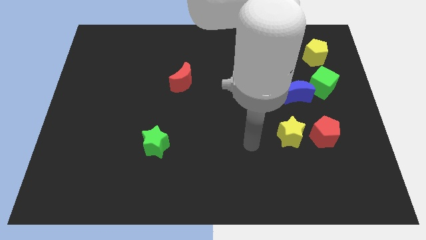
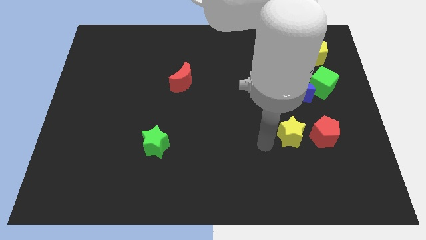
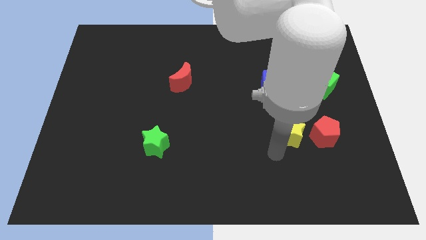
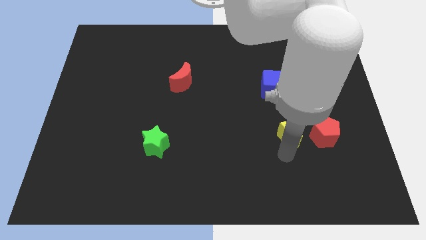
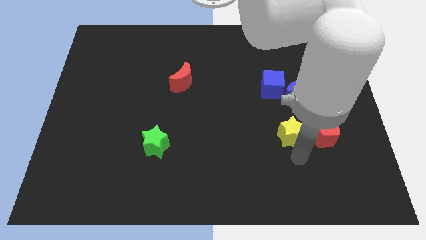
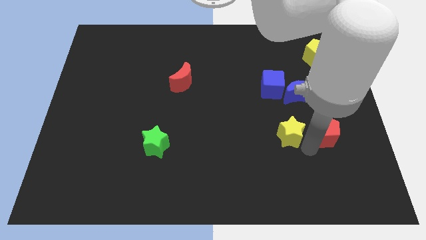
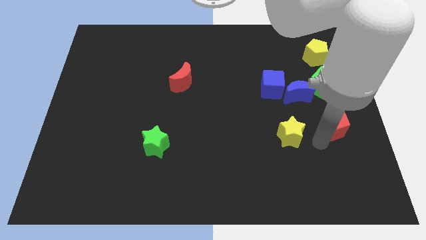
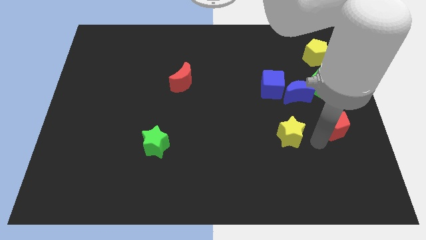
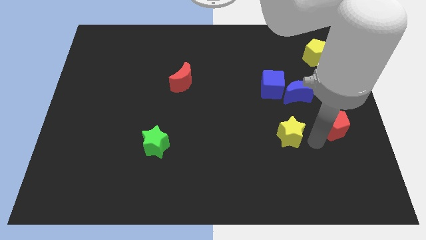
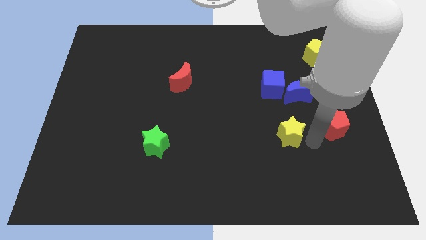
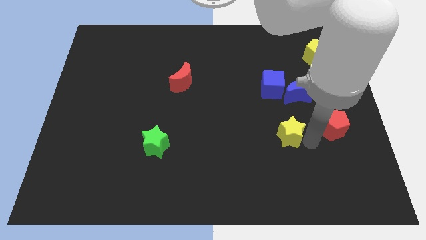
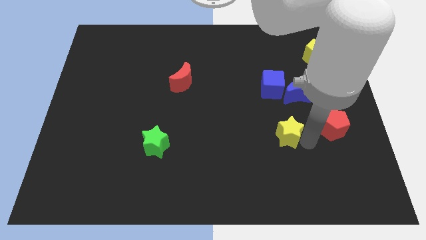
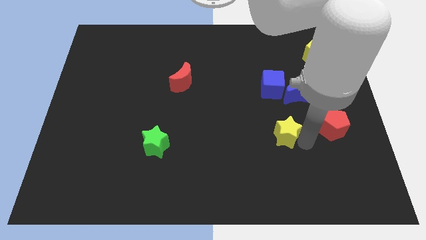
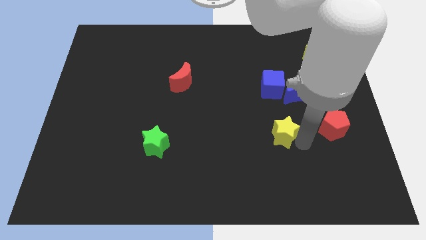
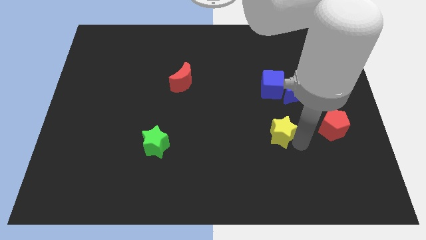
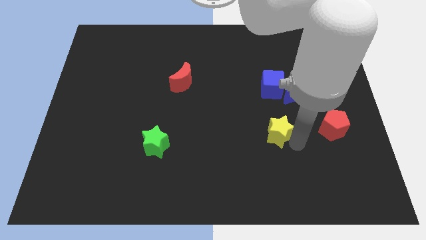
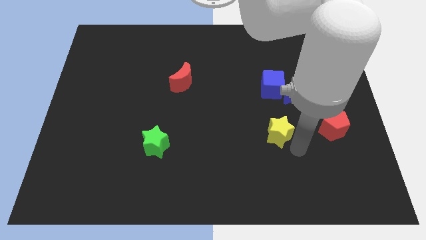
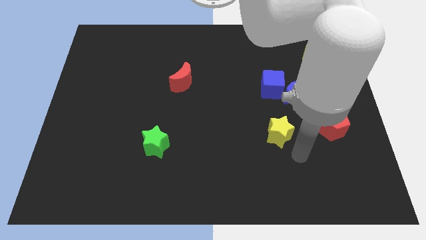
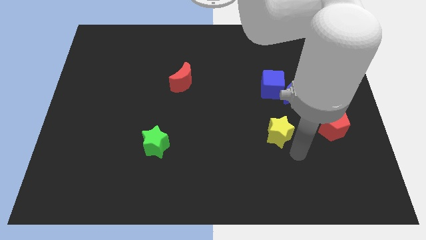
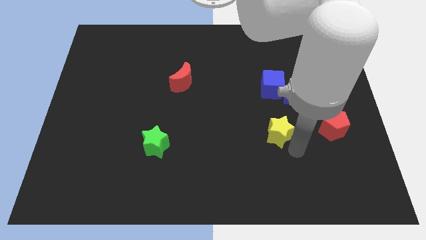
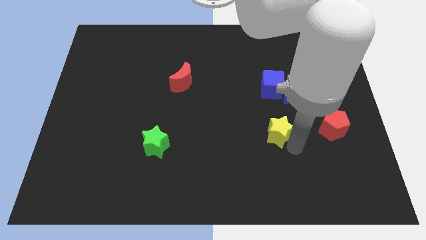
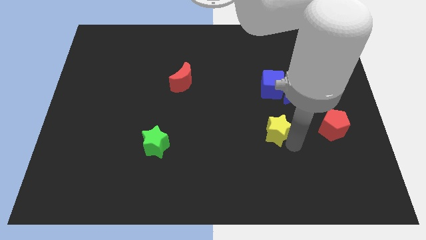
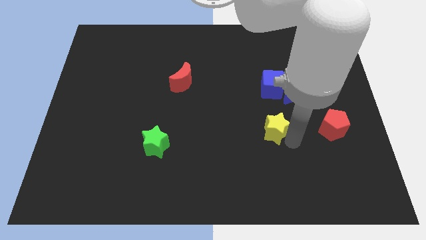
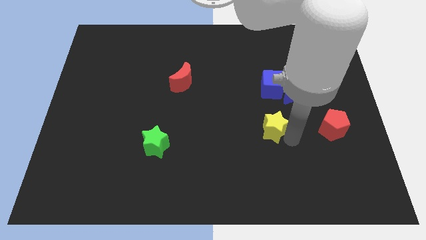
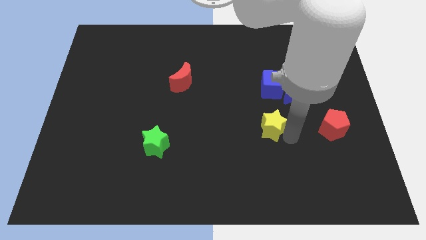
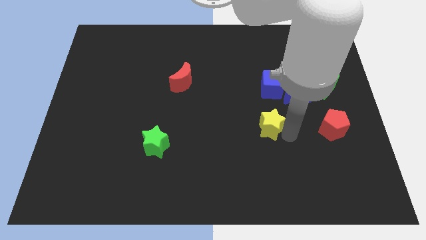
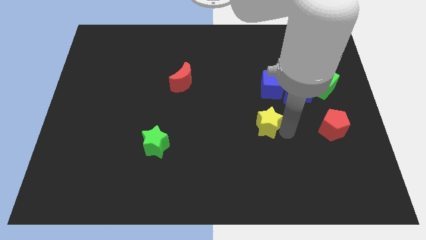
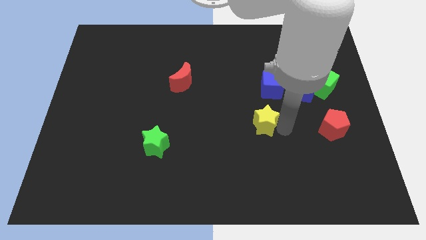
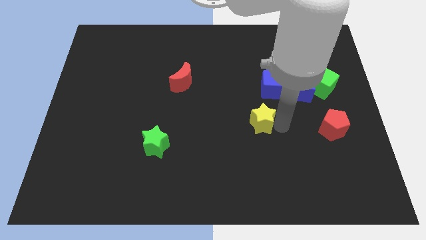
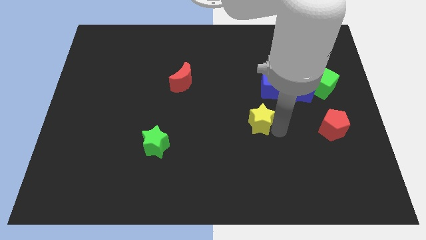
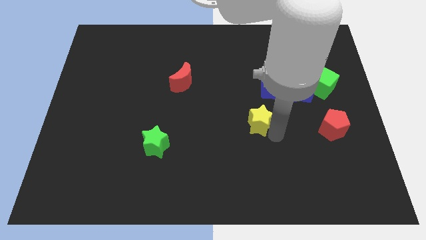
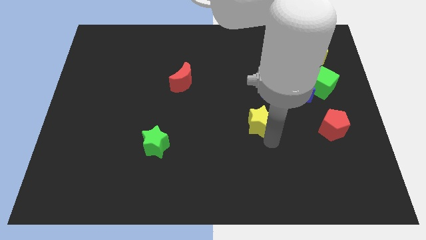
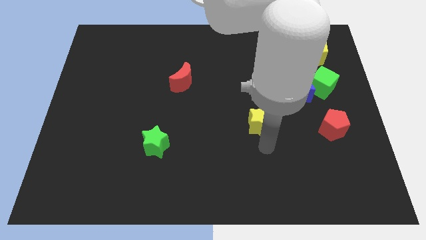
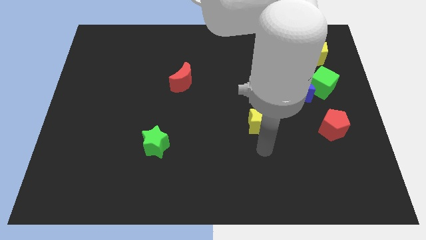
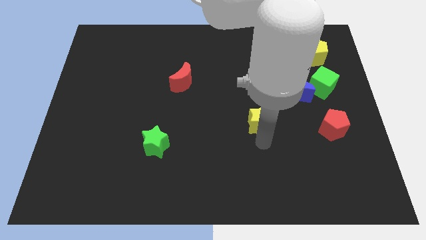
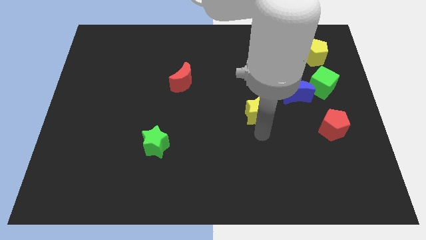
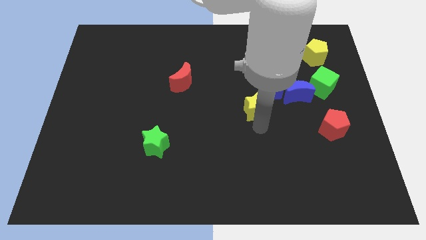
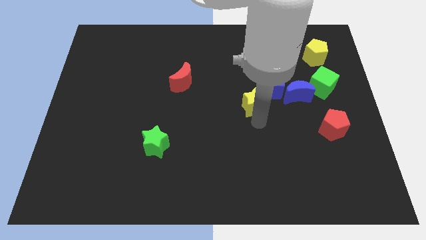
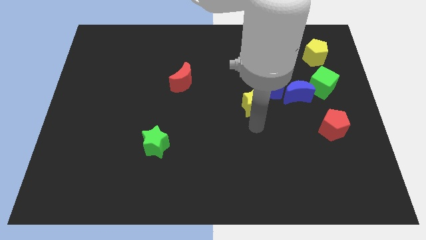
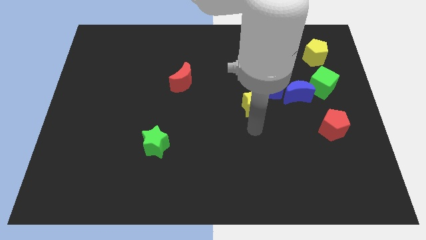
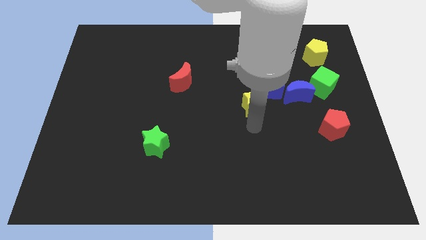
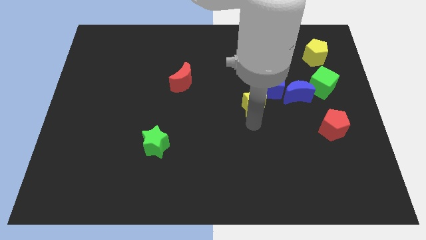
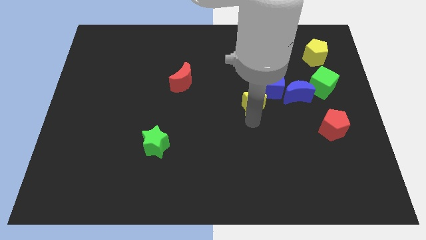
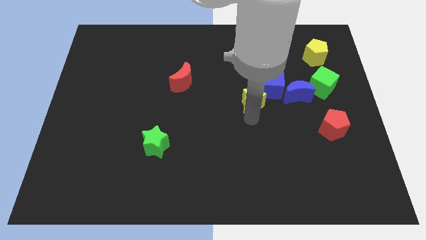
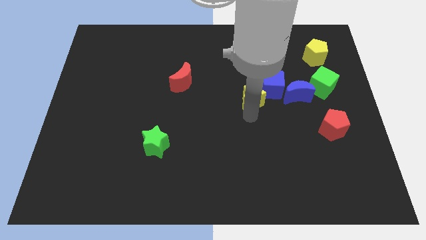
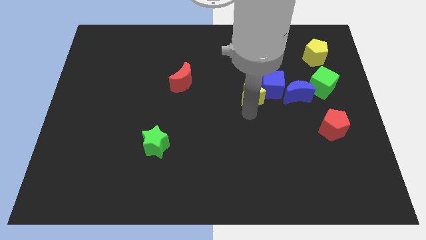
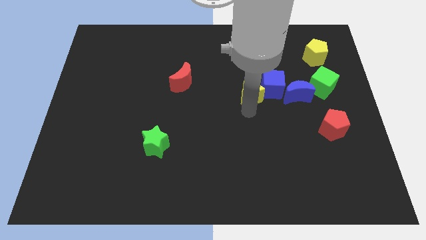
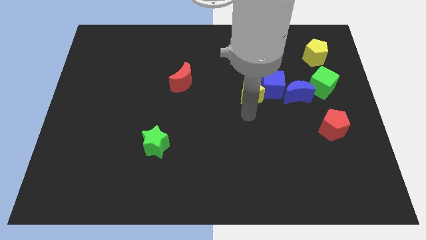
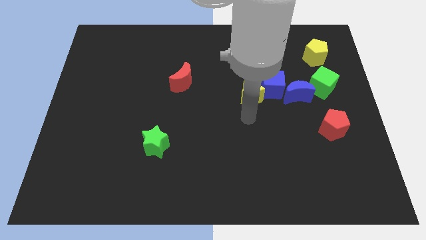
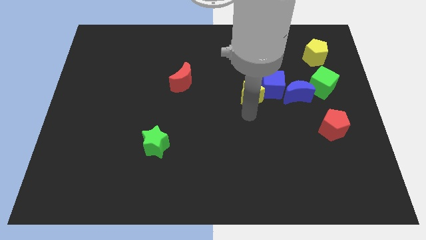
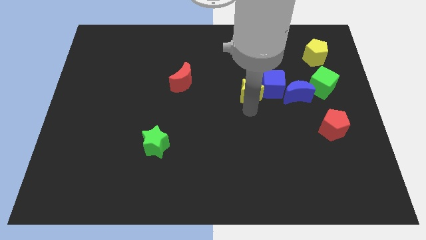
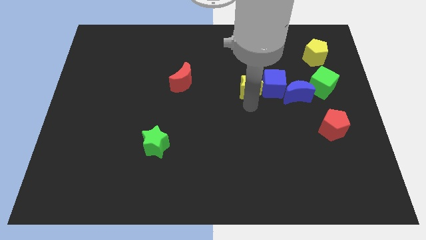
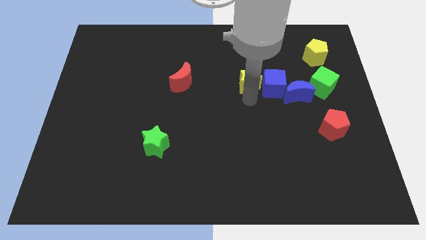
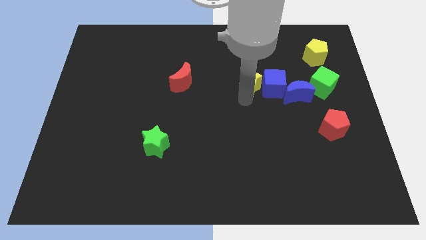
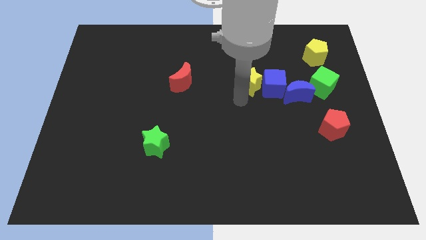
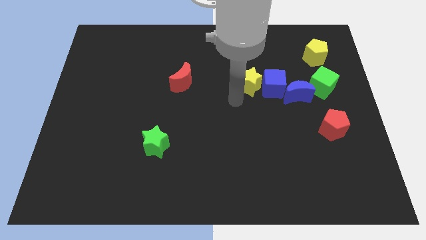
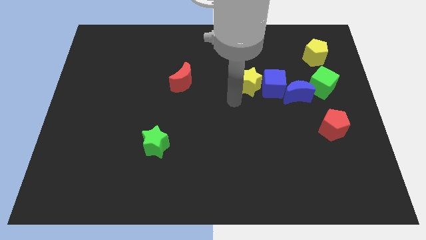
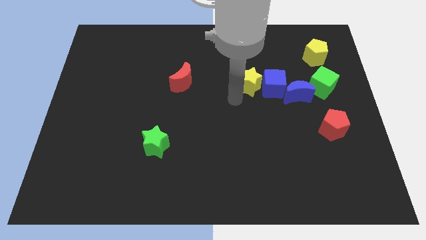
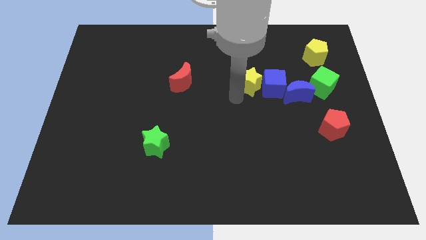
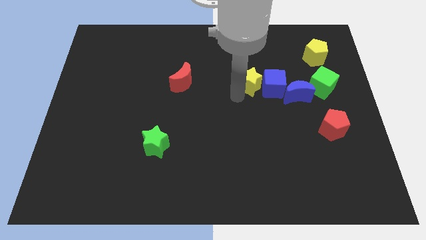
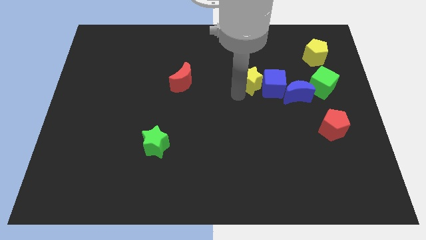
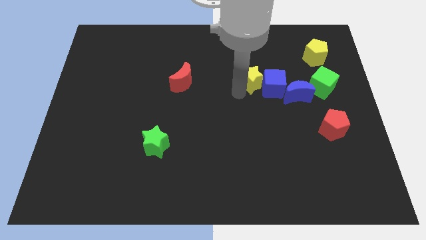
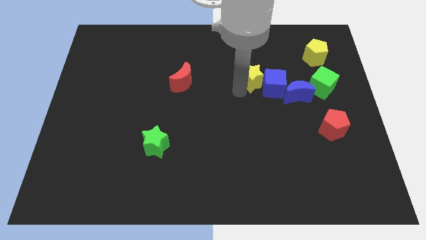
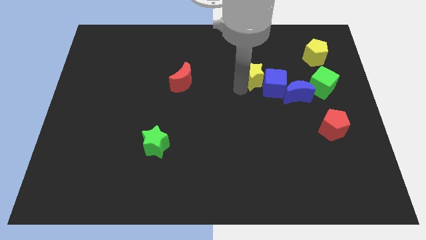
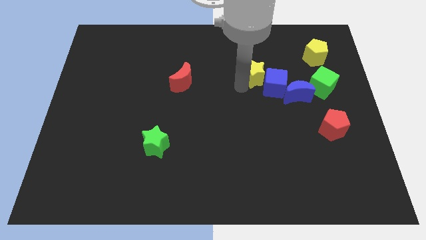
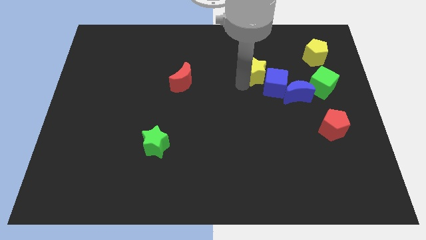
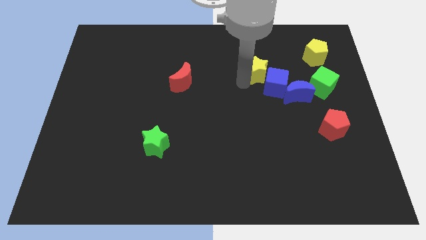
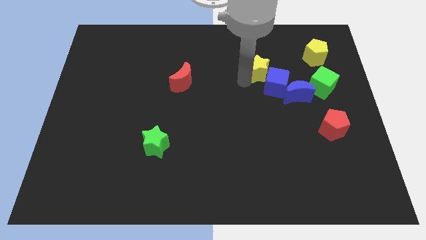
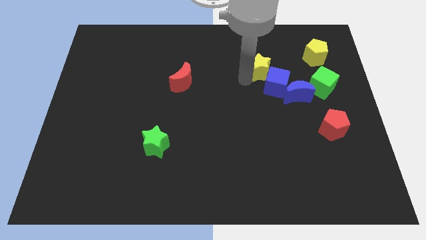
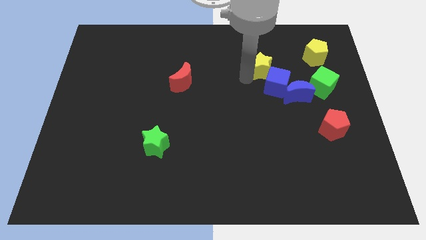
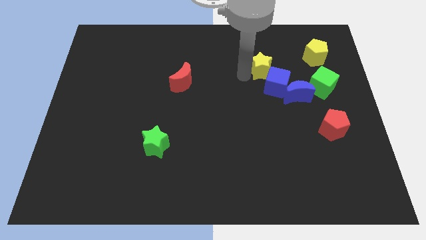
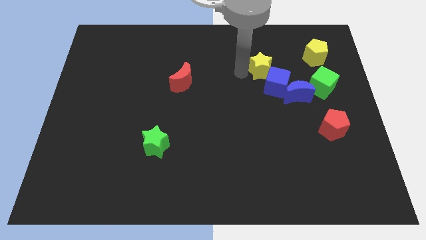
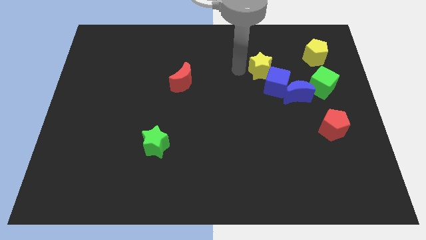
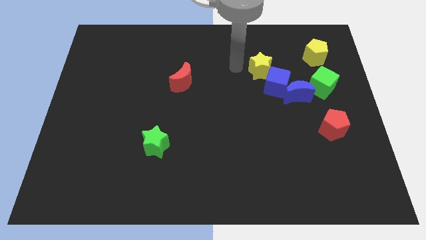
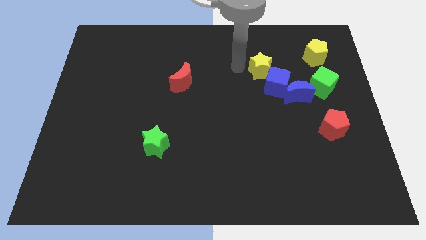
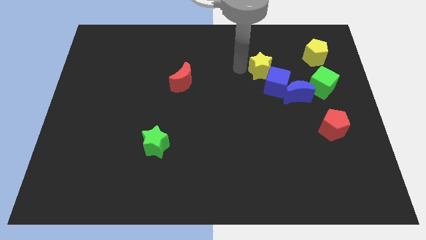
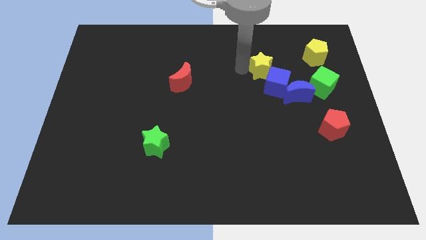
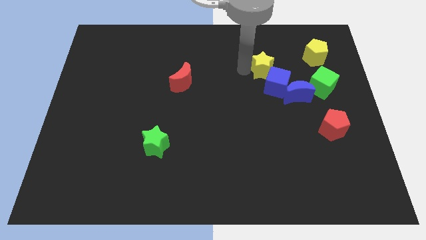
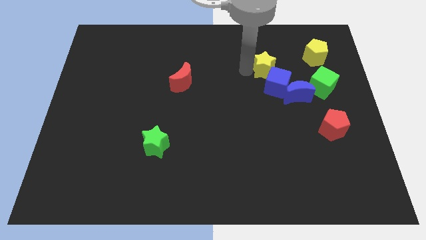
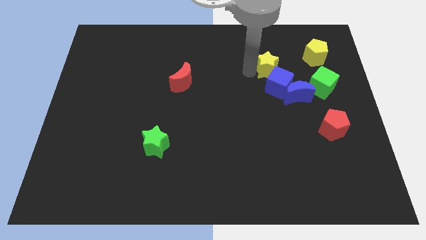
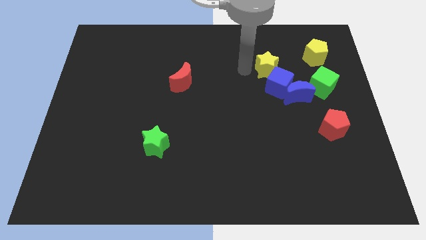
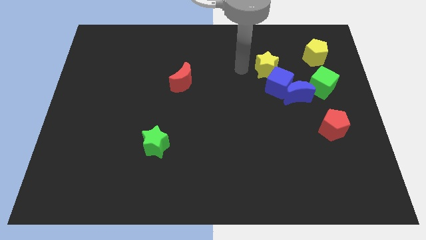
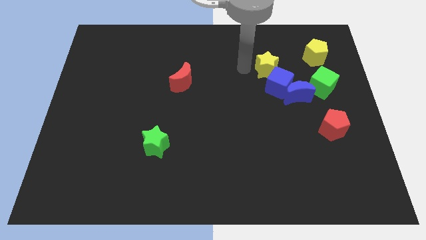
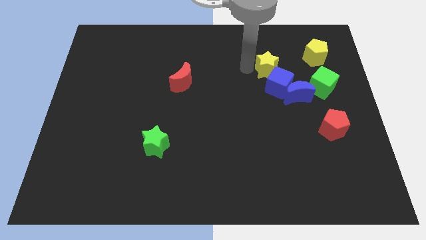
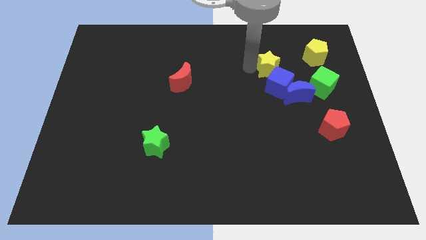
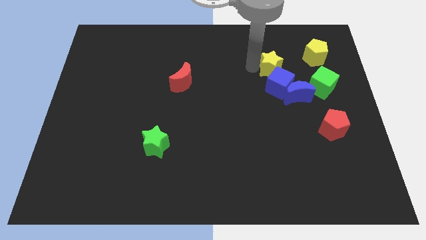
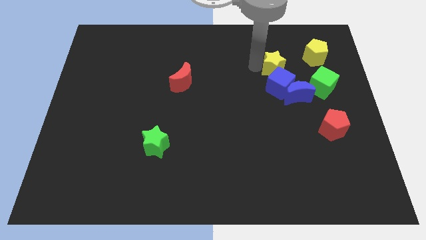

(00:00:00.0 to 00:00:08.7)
put the yellow star to the top right of the blue cube
